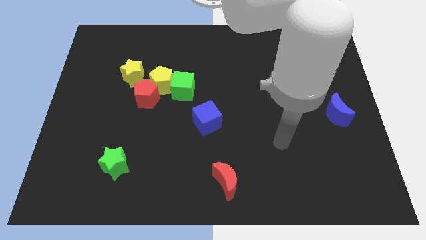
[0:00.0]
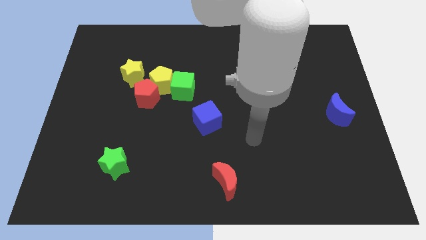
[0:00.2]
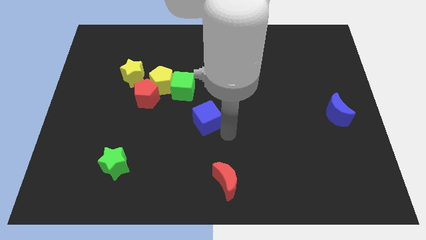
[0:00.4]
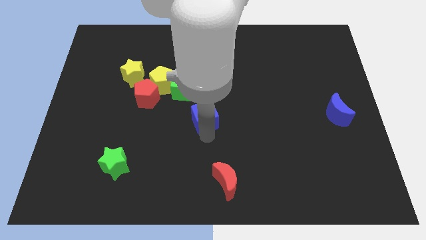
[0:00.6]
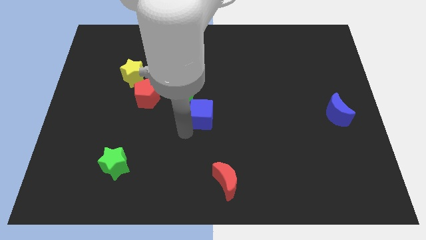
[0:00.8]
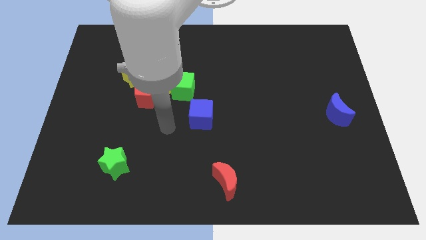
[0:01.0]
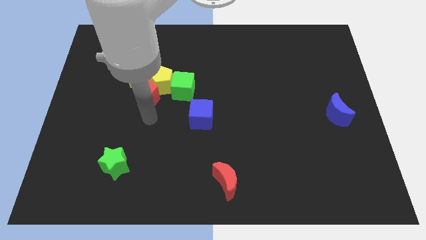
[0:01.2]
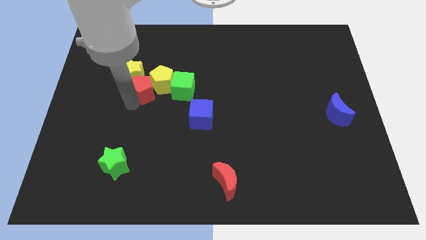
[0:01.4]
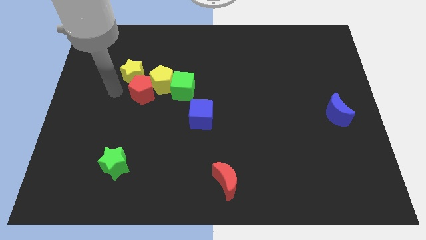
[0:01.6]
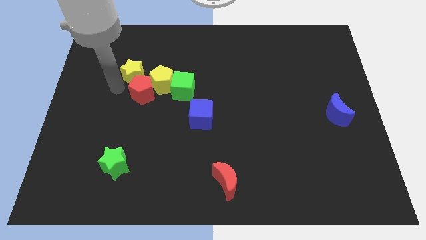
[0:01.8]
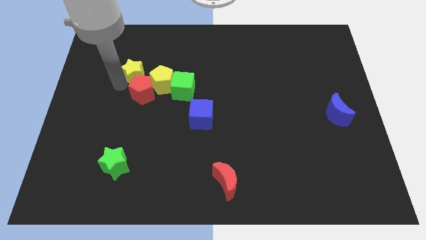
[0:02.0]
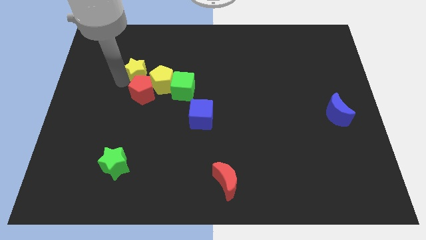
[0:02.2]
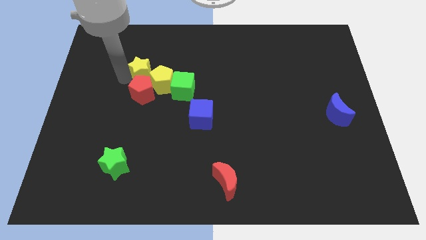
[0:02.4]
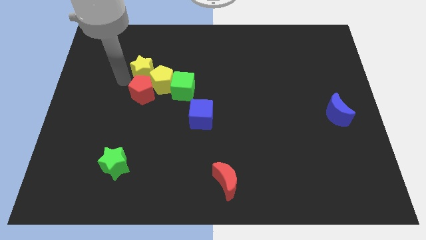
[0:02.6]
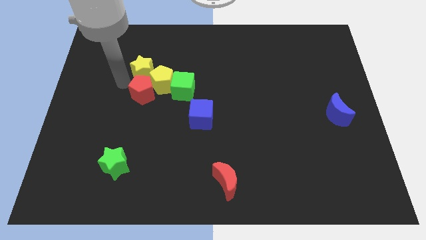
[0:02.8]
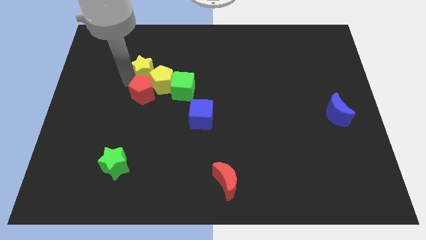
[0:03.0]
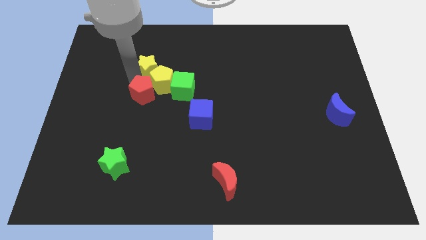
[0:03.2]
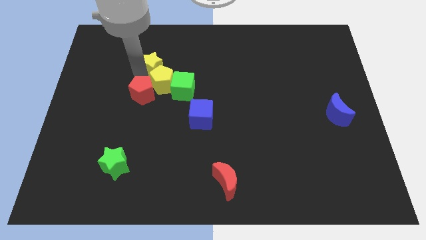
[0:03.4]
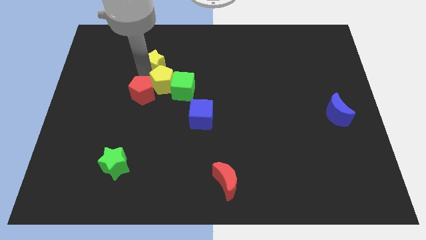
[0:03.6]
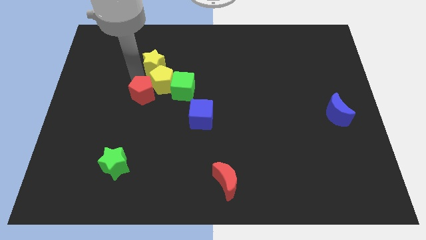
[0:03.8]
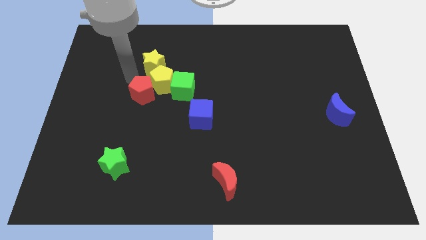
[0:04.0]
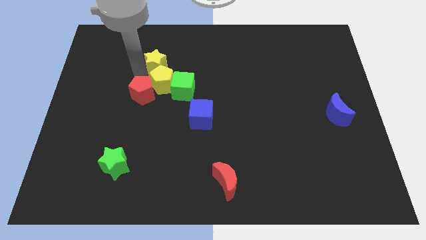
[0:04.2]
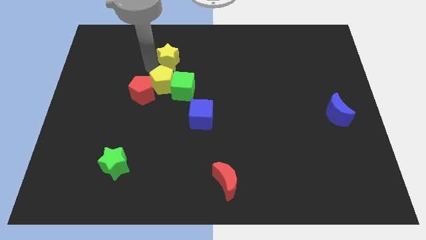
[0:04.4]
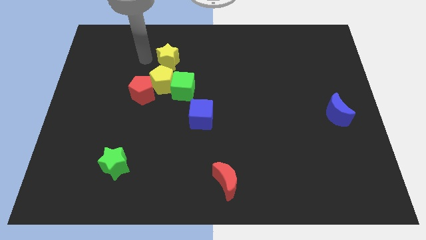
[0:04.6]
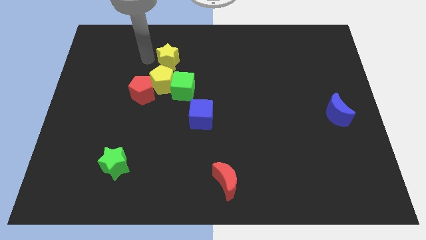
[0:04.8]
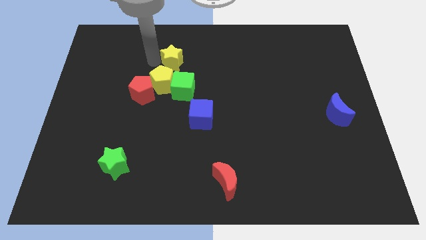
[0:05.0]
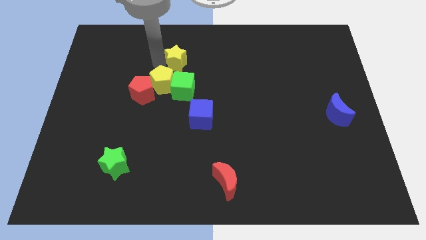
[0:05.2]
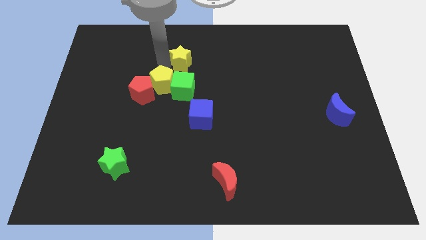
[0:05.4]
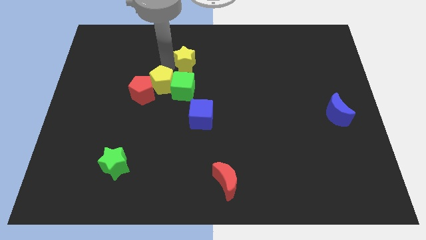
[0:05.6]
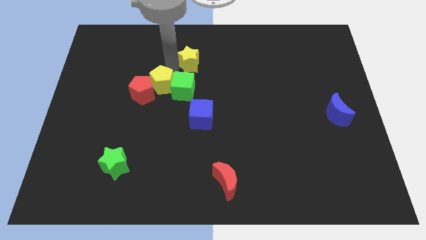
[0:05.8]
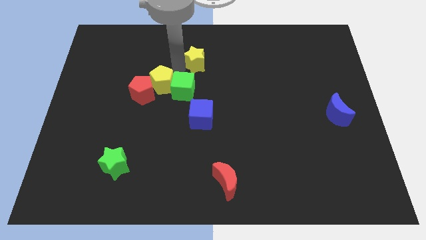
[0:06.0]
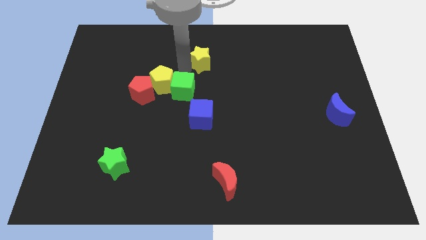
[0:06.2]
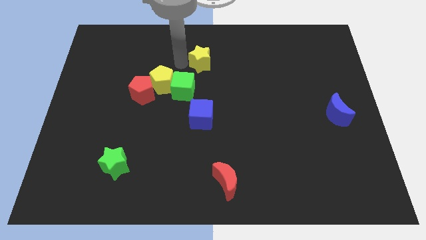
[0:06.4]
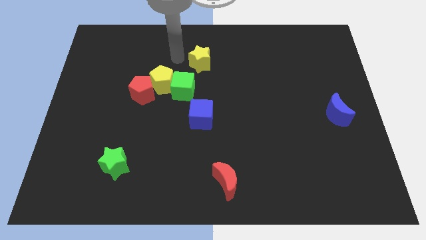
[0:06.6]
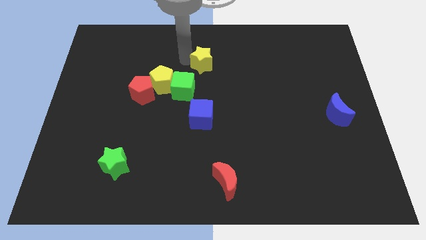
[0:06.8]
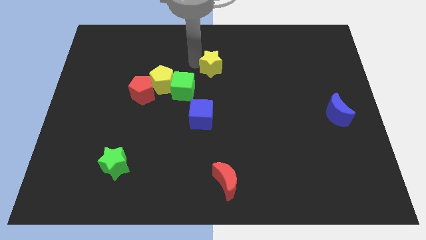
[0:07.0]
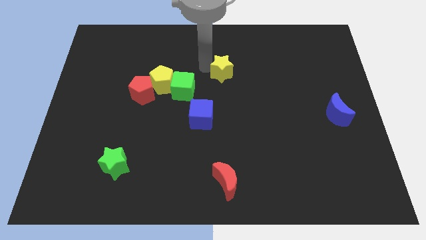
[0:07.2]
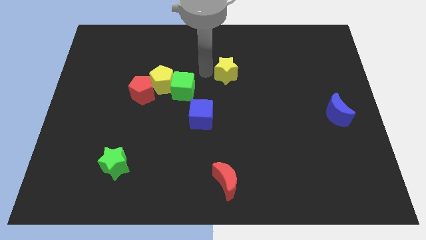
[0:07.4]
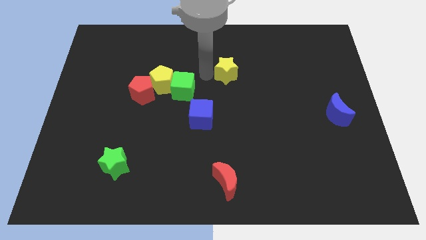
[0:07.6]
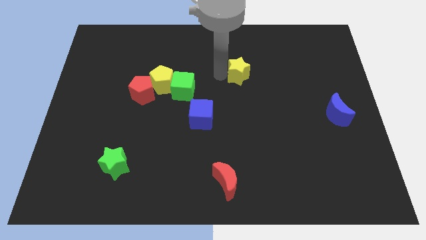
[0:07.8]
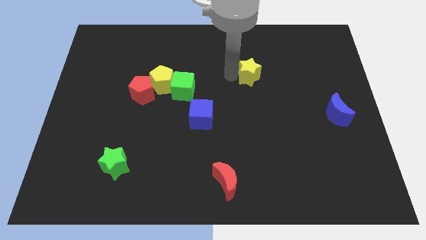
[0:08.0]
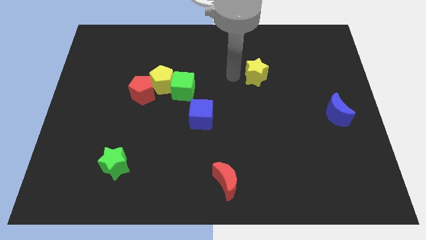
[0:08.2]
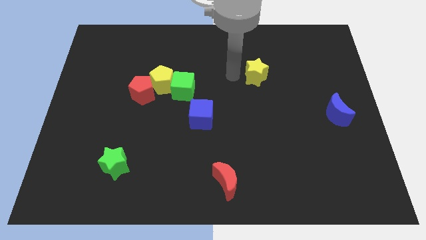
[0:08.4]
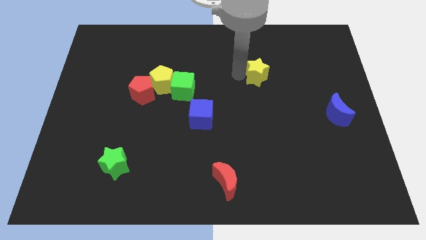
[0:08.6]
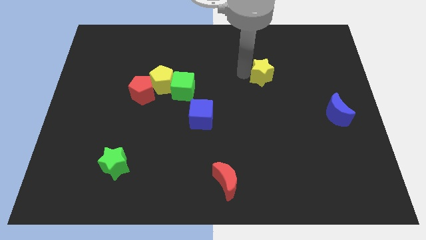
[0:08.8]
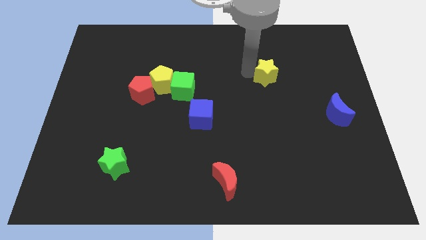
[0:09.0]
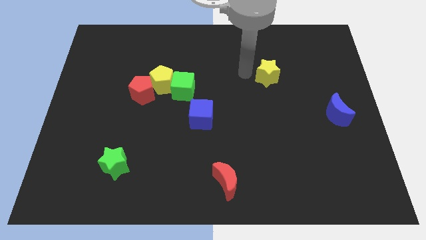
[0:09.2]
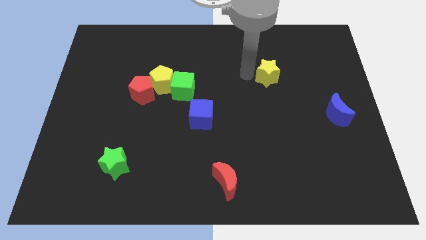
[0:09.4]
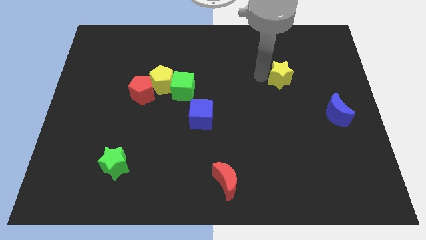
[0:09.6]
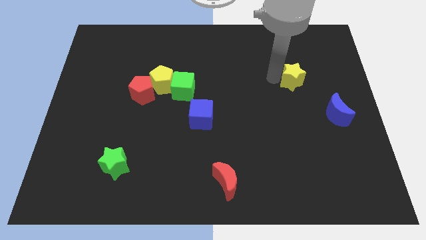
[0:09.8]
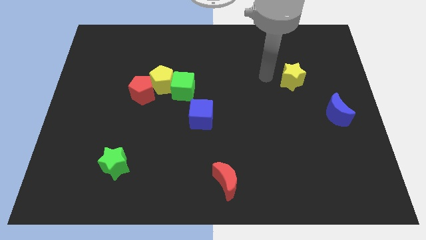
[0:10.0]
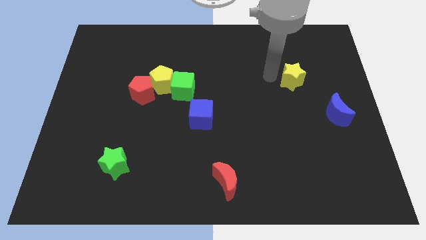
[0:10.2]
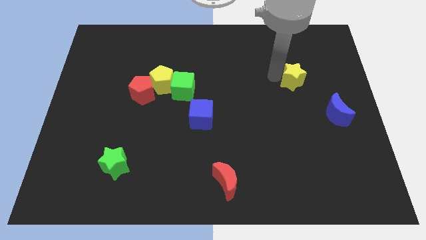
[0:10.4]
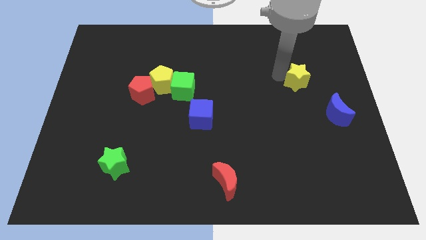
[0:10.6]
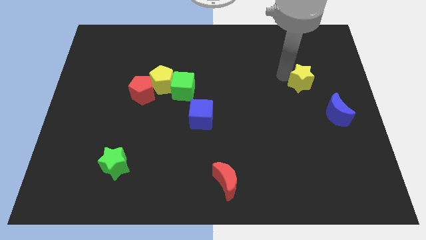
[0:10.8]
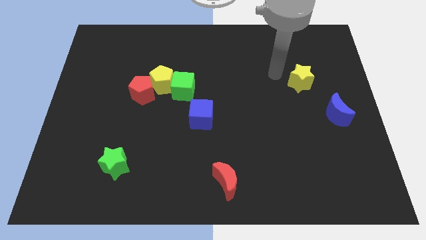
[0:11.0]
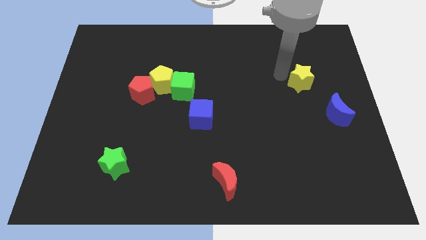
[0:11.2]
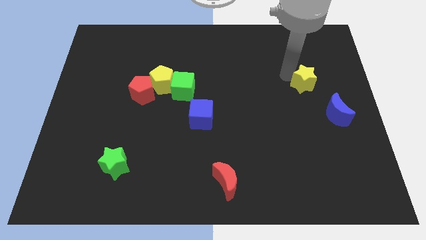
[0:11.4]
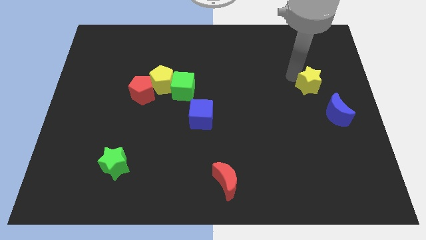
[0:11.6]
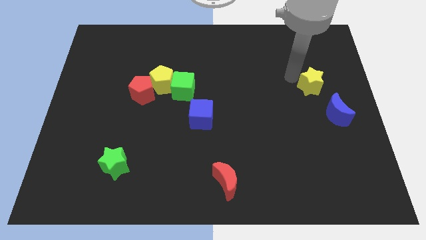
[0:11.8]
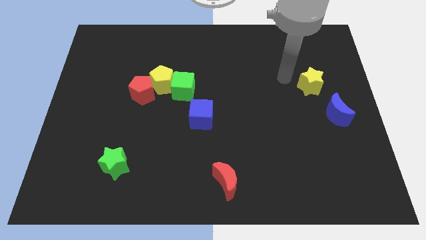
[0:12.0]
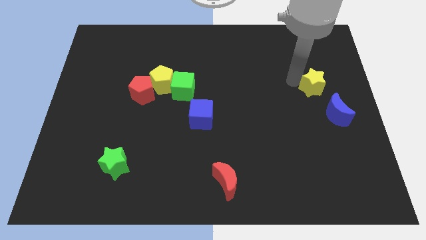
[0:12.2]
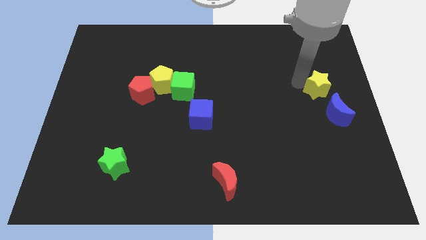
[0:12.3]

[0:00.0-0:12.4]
put the yellow star to the right side

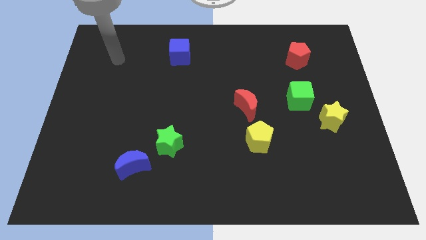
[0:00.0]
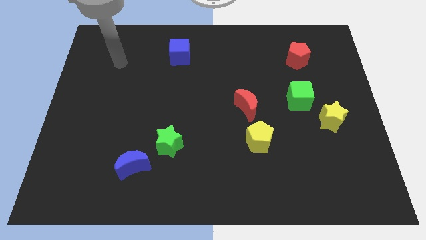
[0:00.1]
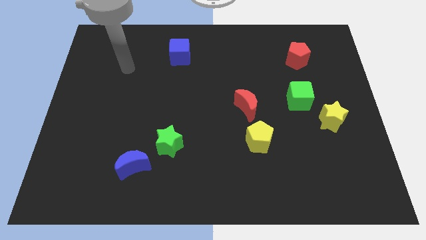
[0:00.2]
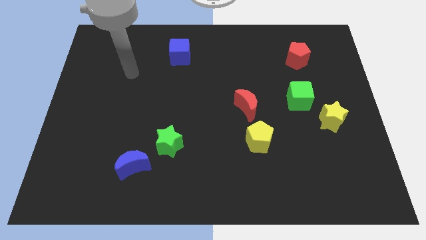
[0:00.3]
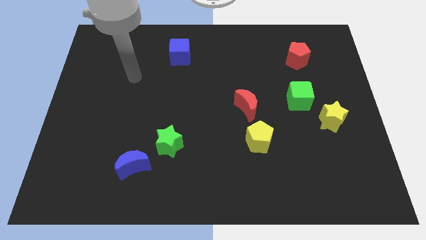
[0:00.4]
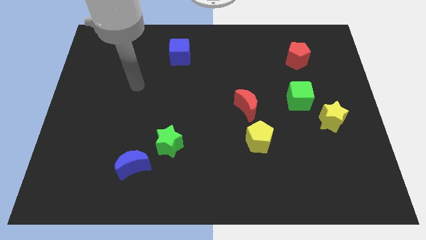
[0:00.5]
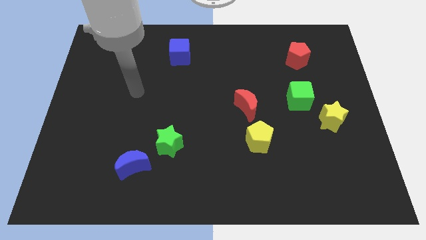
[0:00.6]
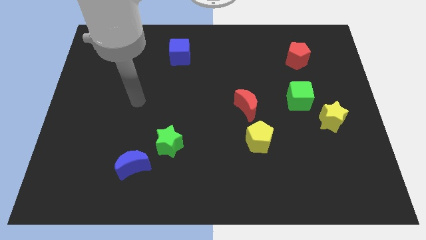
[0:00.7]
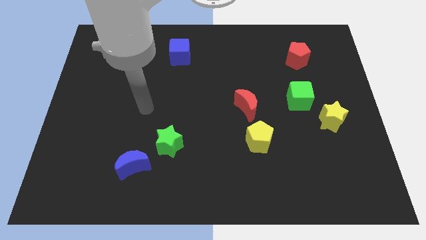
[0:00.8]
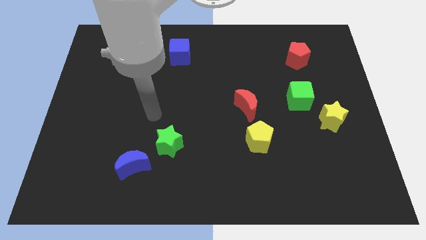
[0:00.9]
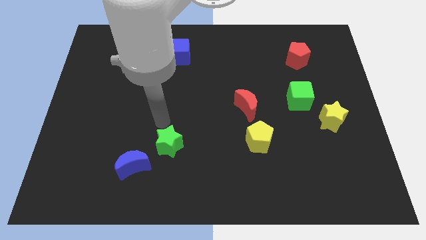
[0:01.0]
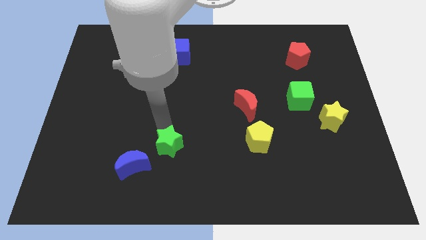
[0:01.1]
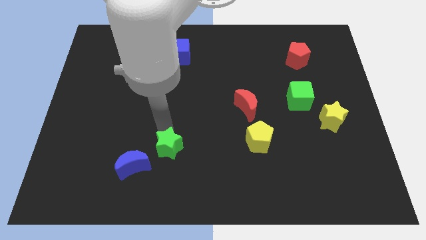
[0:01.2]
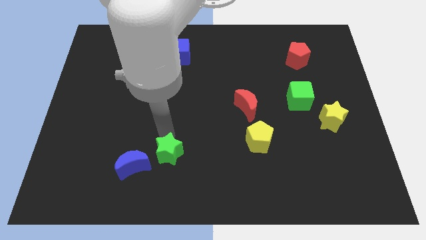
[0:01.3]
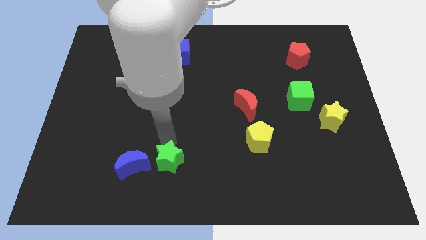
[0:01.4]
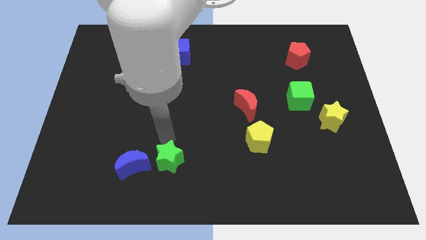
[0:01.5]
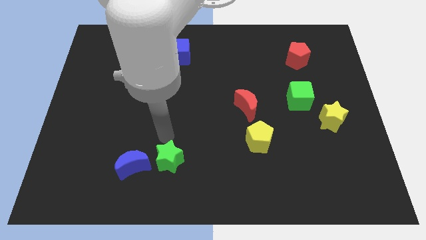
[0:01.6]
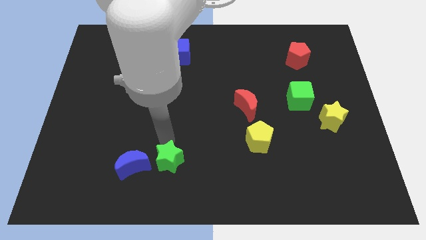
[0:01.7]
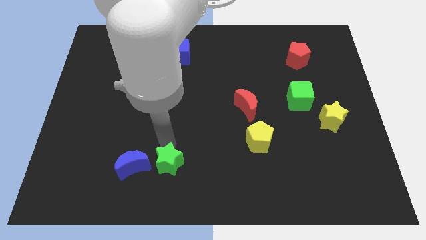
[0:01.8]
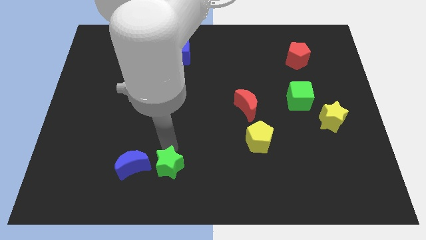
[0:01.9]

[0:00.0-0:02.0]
move the green star to the bottom
